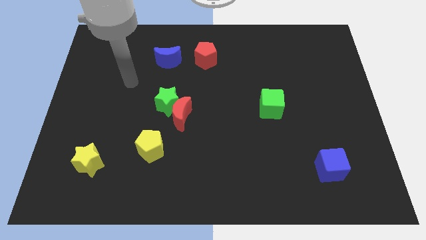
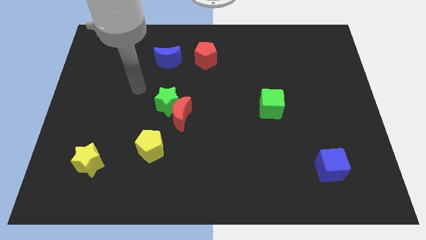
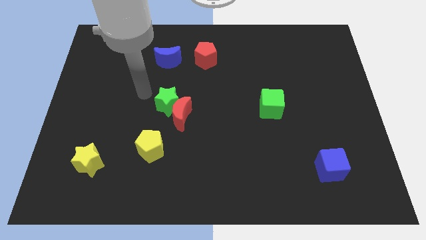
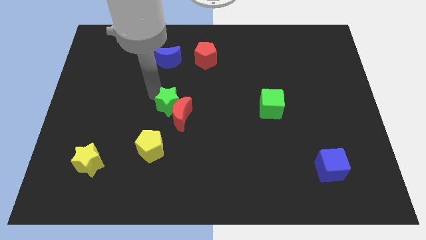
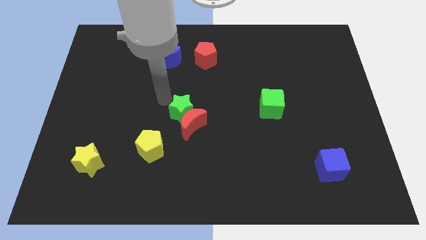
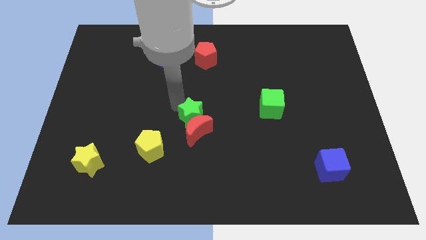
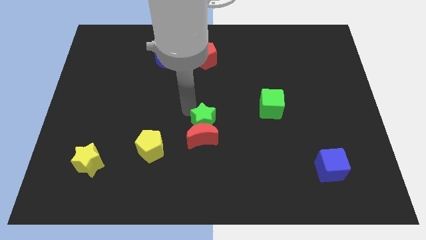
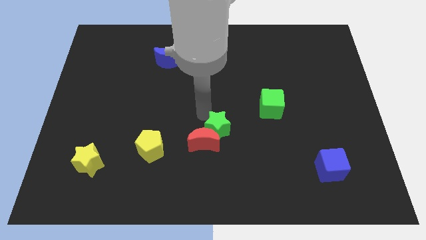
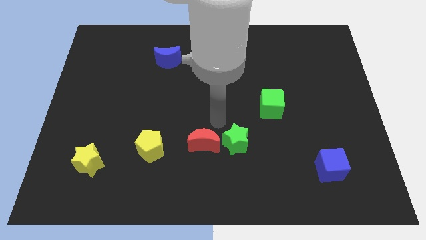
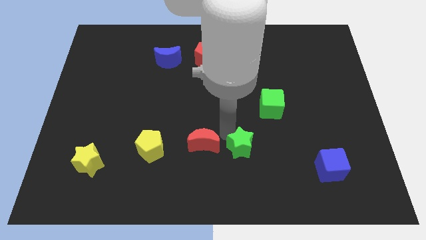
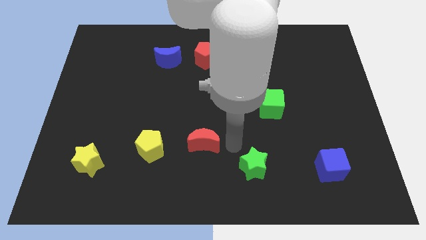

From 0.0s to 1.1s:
move the red moon away from the green star

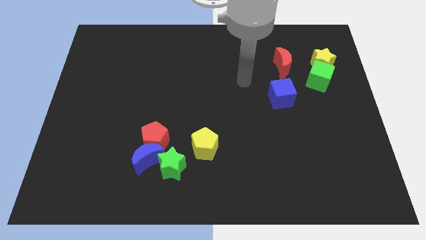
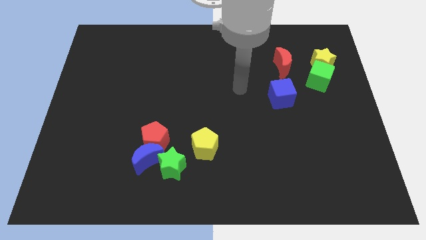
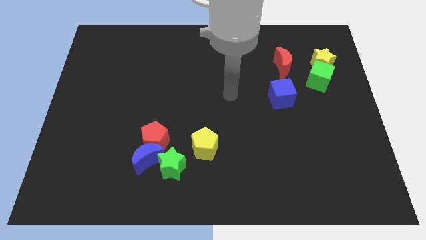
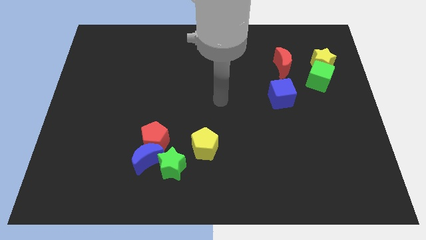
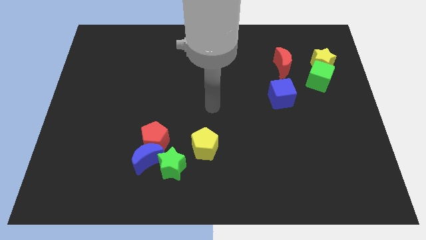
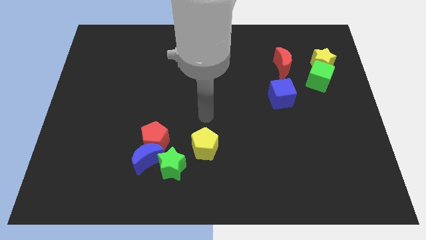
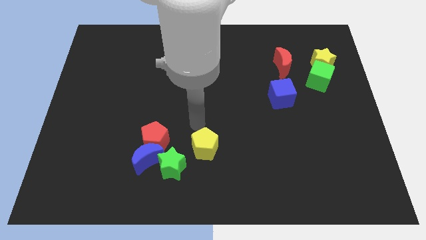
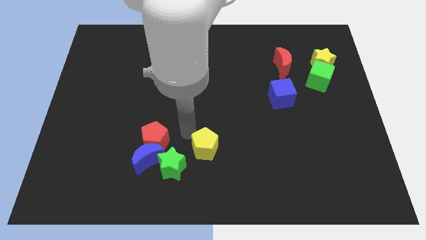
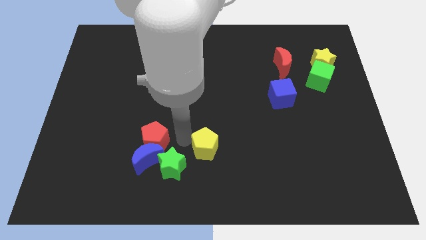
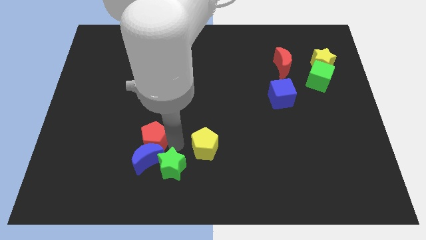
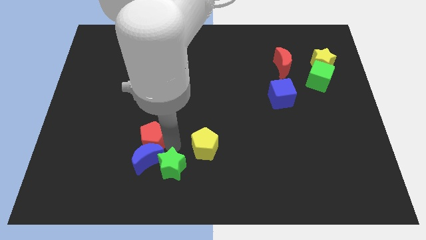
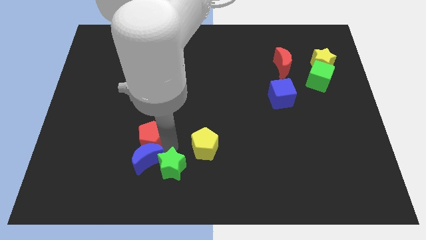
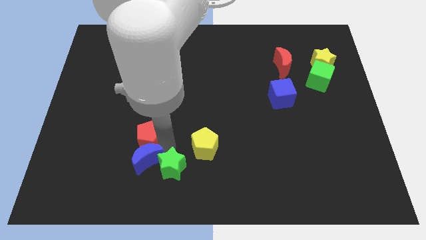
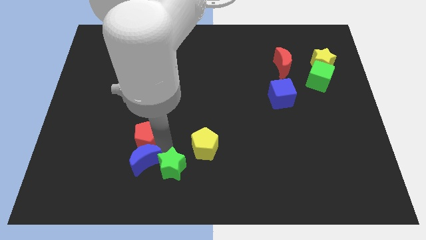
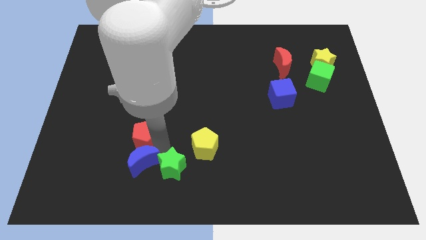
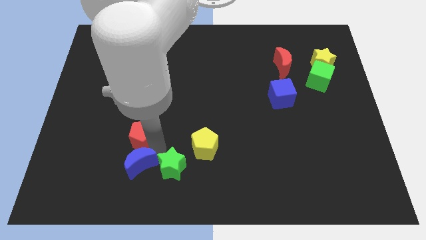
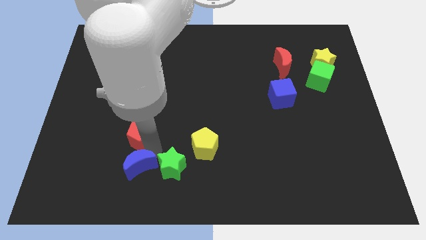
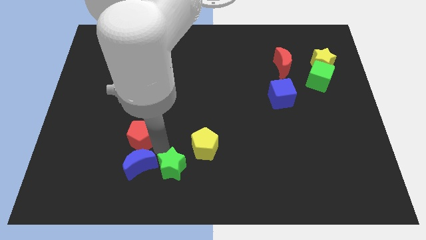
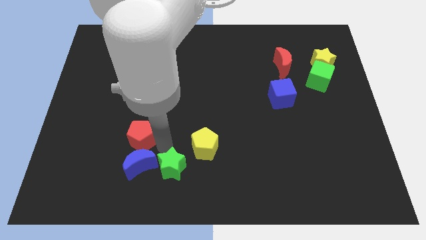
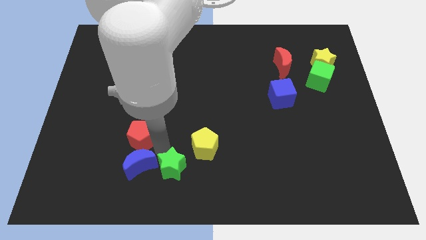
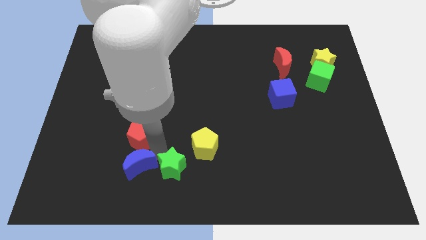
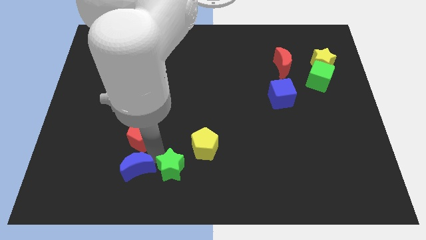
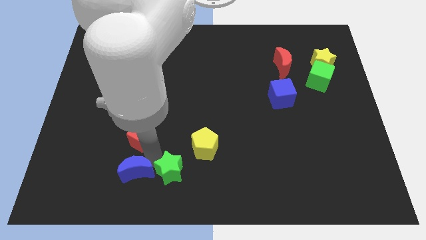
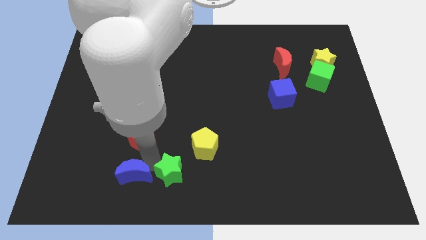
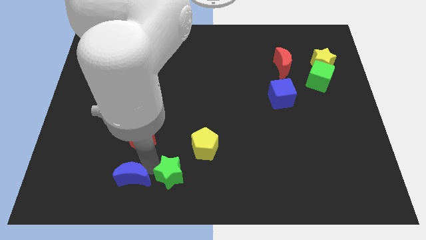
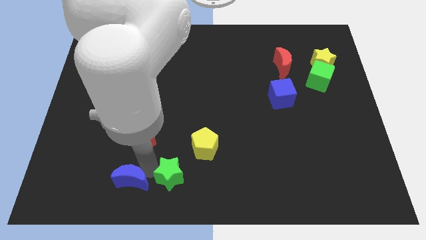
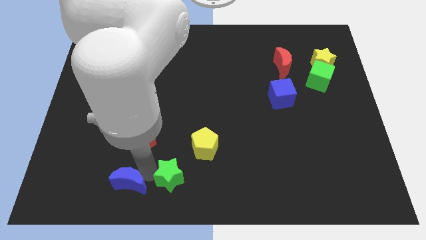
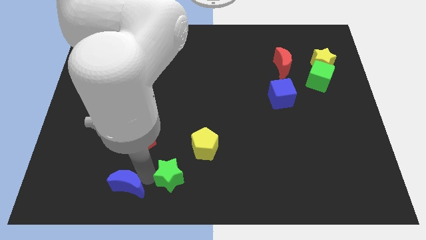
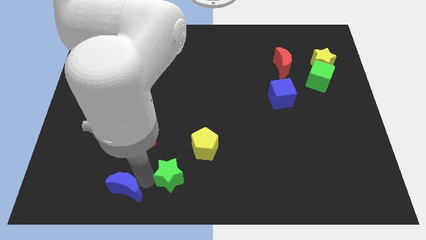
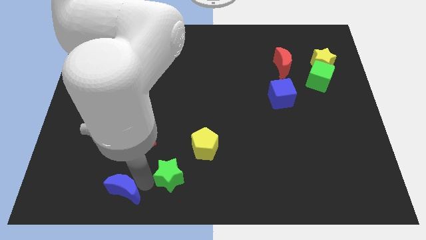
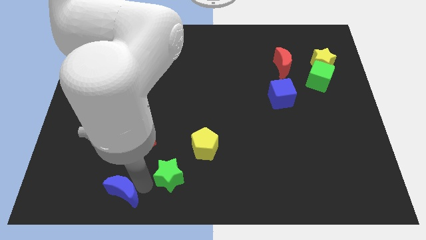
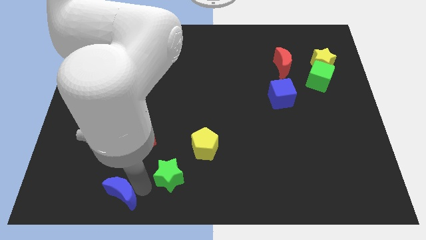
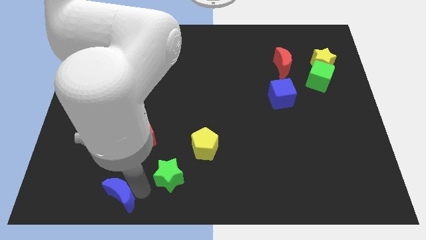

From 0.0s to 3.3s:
separate the blue moon from the red pentagon and green star

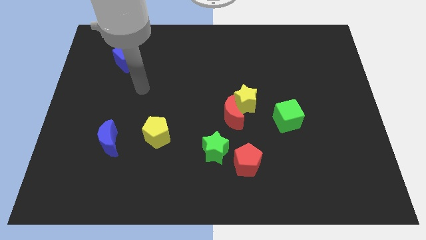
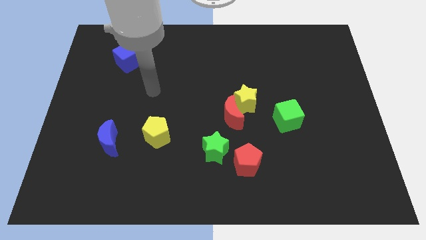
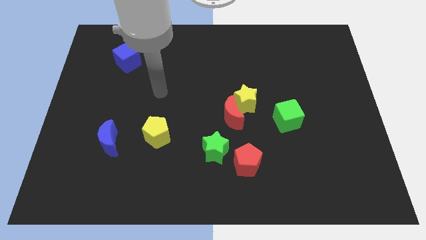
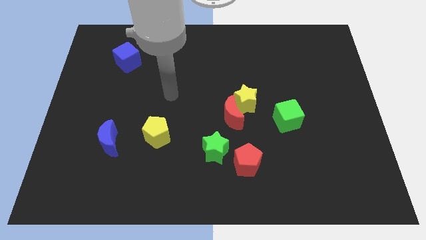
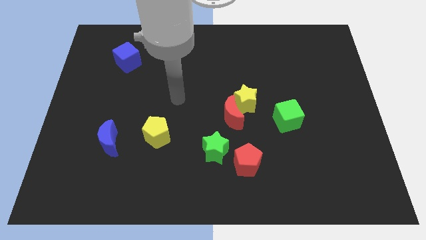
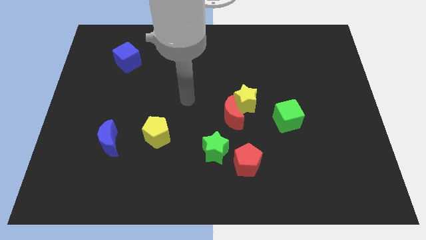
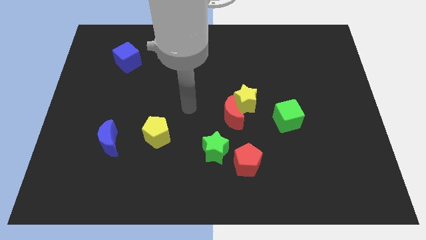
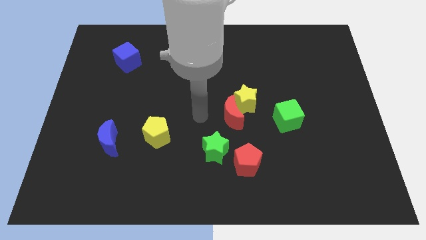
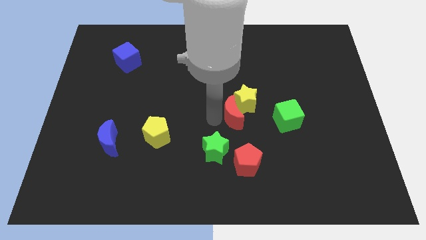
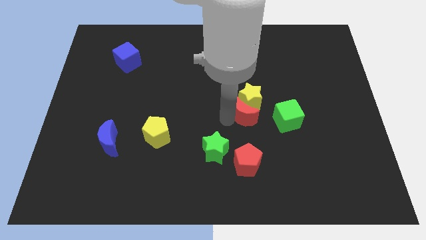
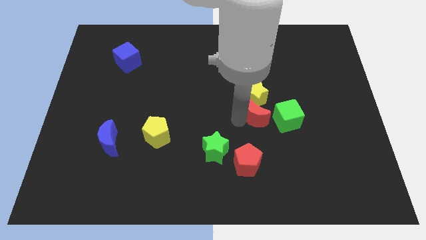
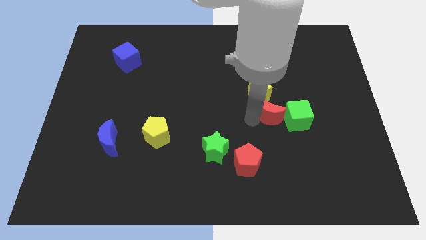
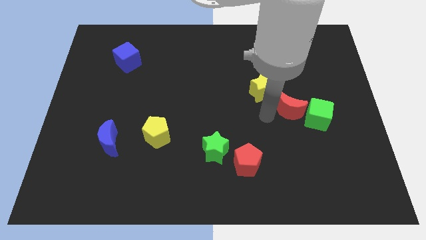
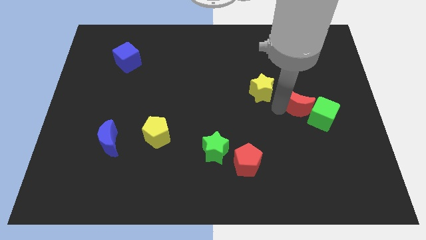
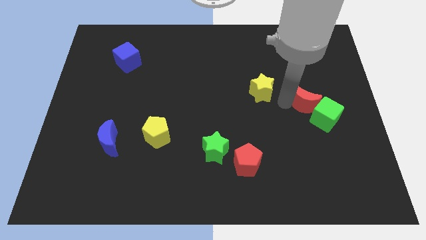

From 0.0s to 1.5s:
pull the yellow star apart from the red moon

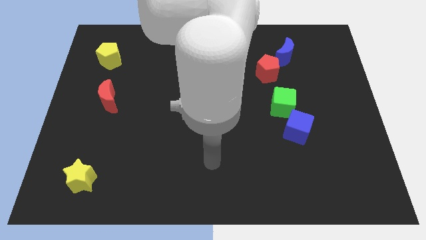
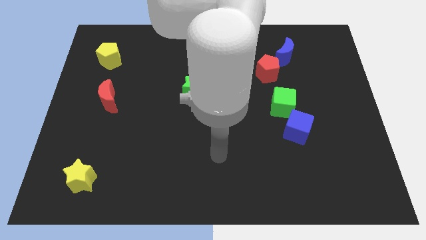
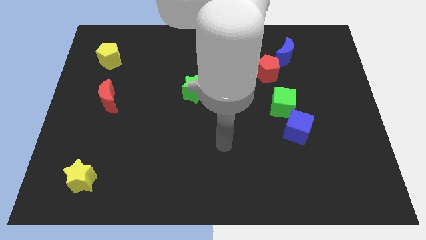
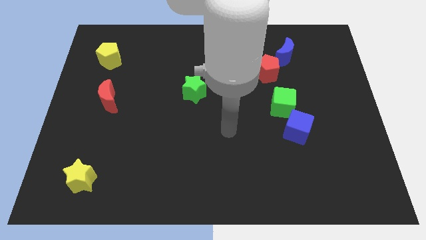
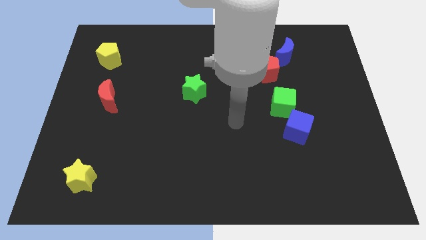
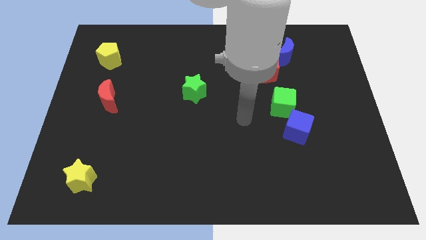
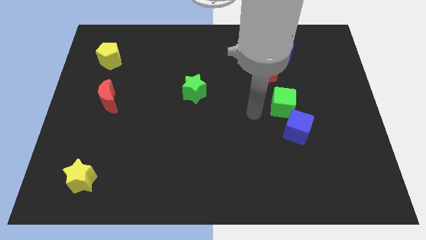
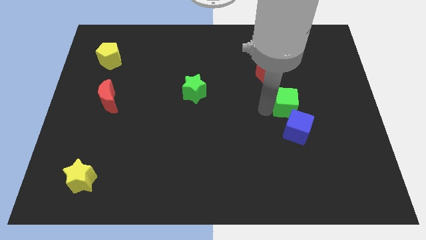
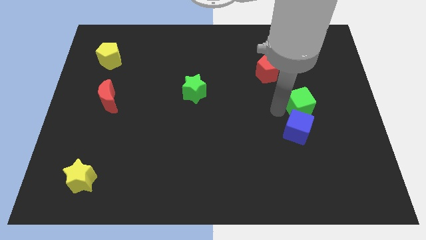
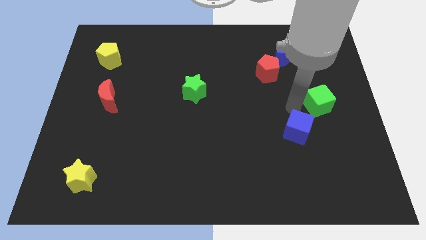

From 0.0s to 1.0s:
move the blue cube away from the green cube

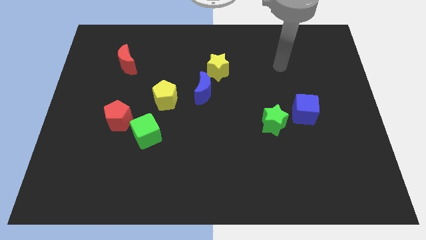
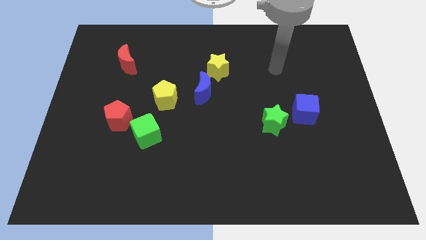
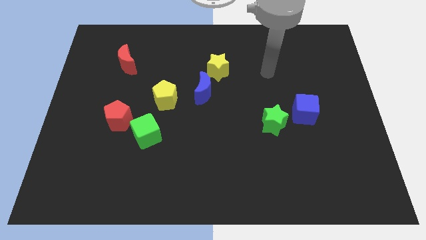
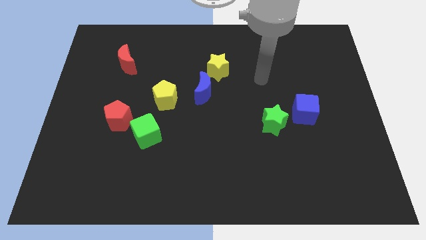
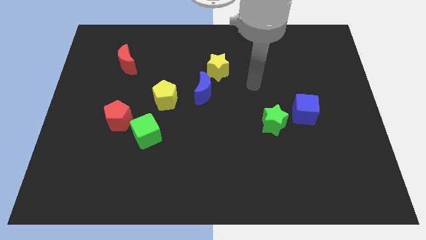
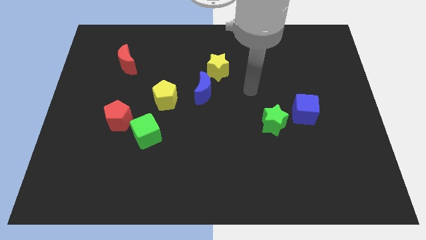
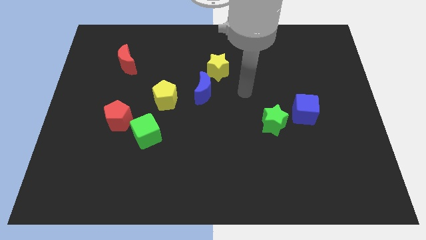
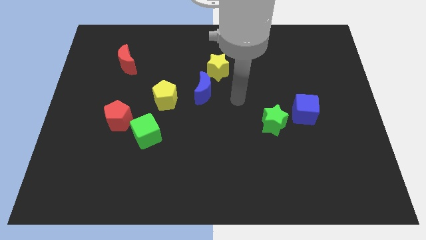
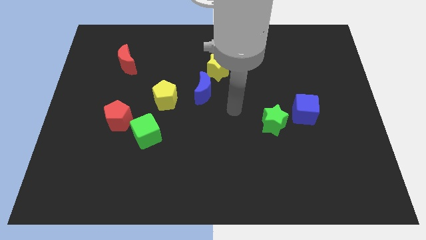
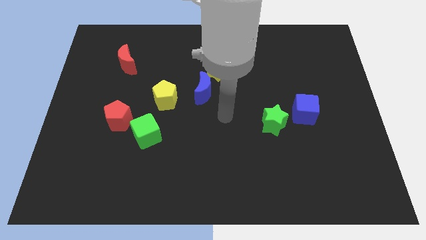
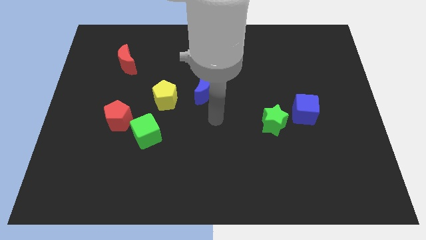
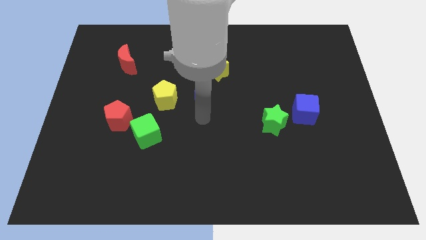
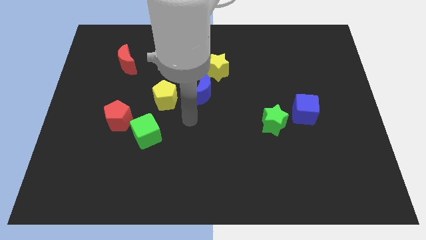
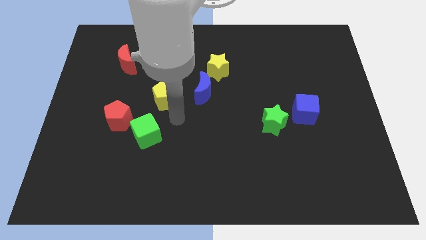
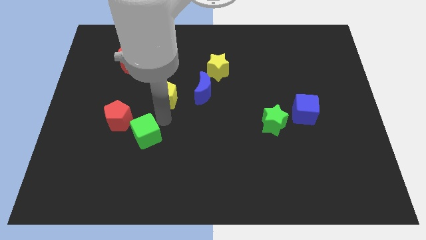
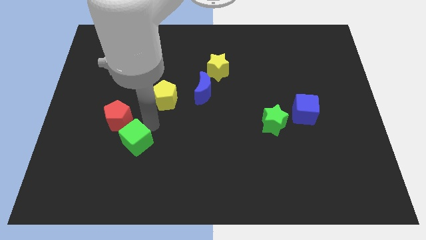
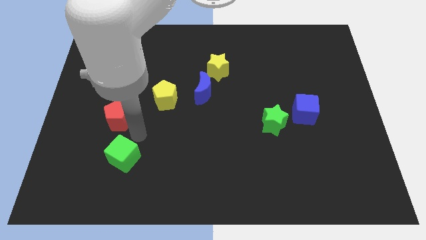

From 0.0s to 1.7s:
pull the red pentagon apart from the green cube

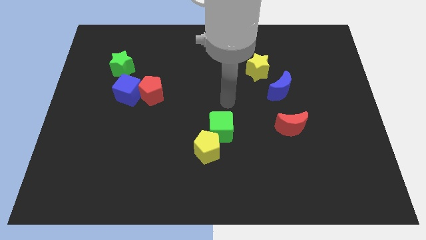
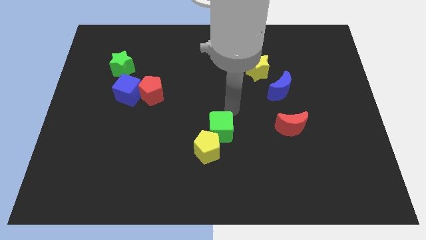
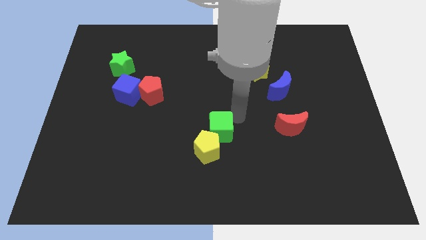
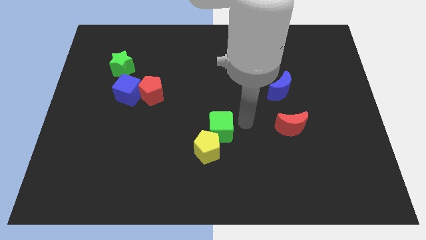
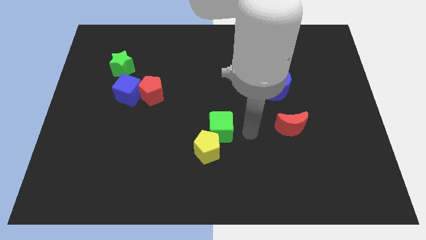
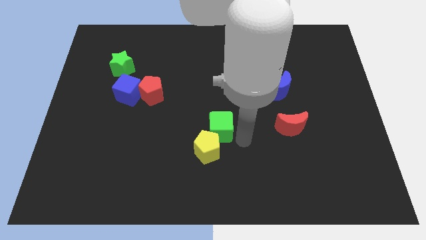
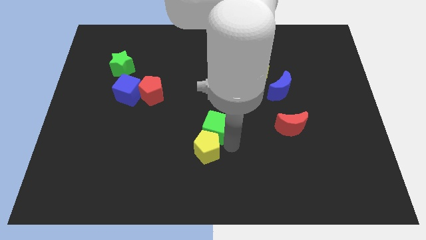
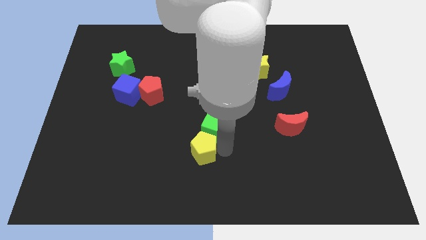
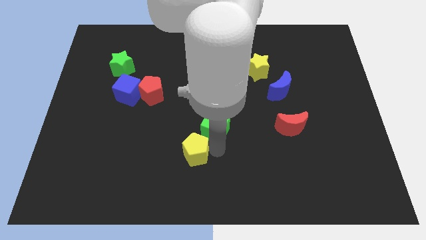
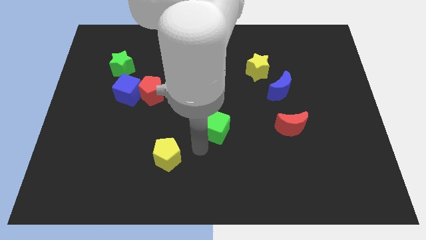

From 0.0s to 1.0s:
move the green cube away from the yellow pentagon
